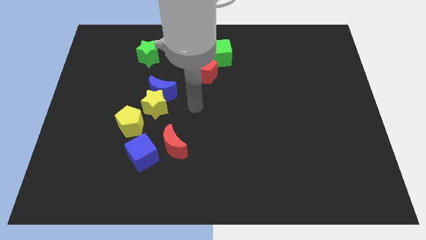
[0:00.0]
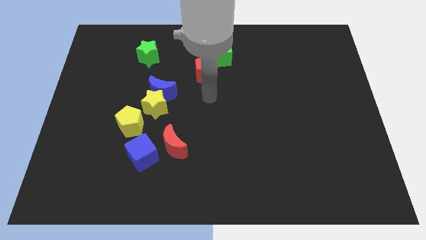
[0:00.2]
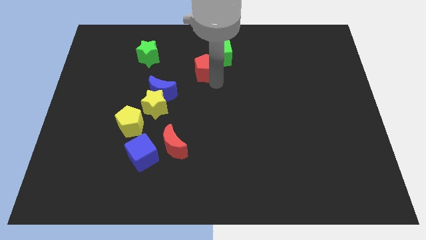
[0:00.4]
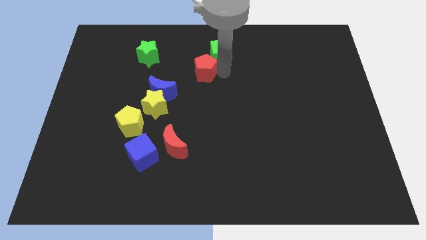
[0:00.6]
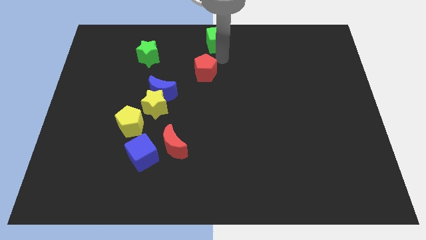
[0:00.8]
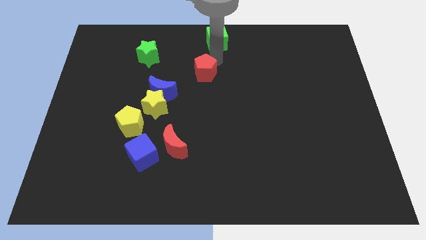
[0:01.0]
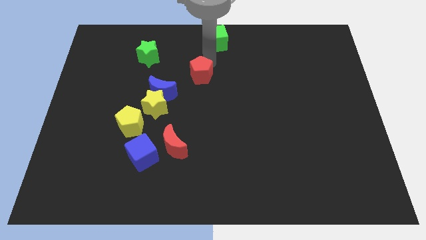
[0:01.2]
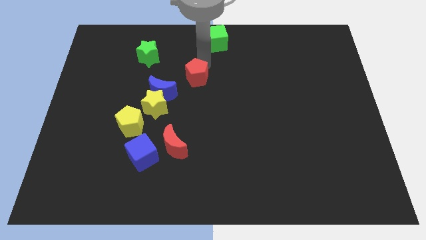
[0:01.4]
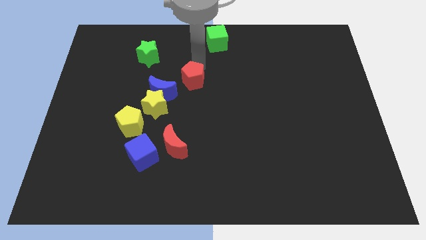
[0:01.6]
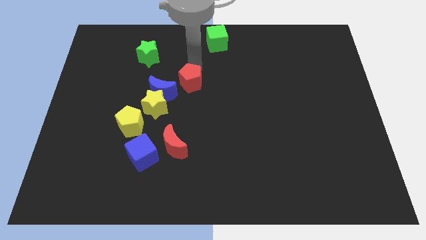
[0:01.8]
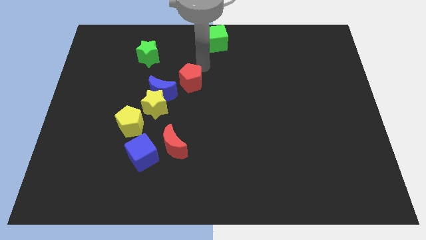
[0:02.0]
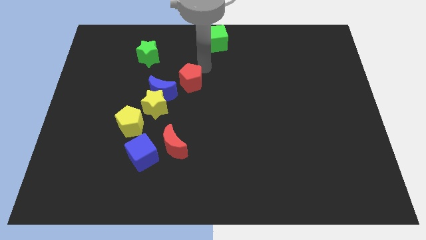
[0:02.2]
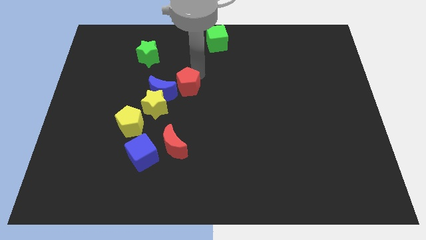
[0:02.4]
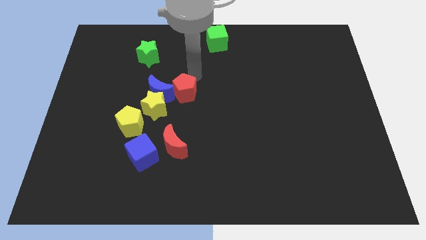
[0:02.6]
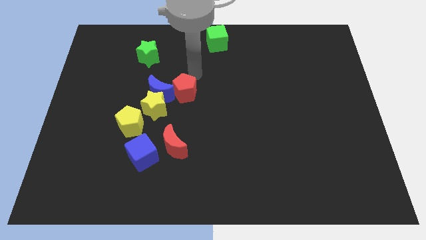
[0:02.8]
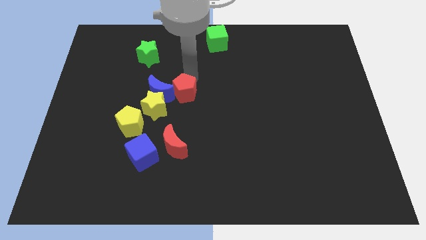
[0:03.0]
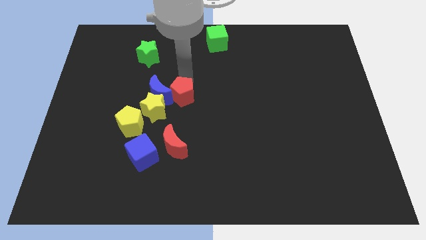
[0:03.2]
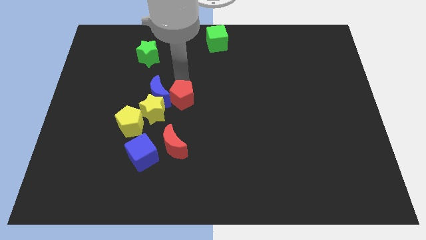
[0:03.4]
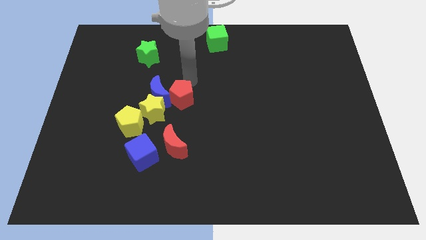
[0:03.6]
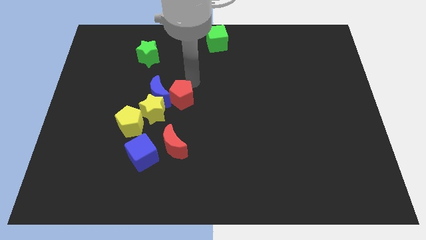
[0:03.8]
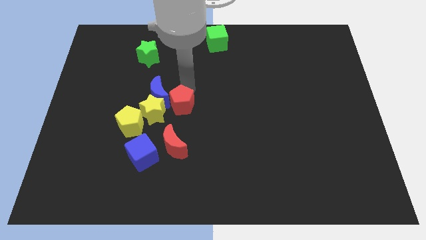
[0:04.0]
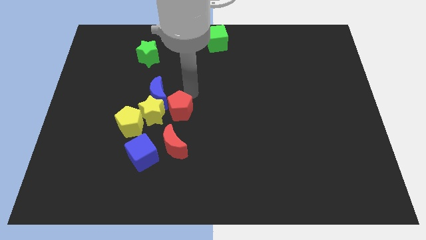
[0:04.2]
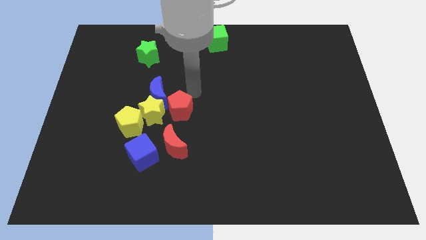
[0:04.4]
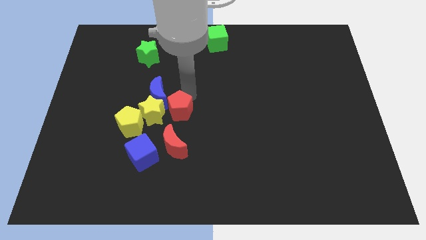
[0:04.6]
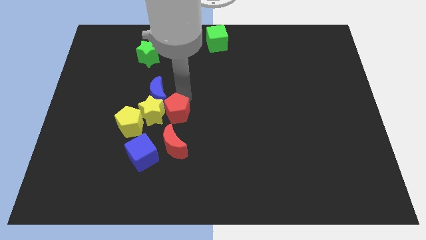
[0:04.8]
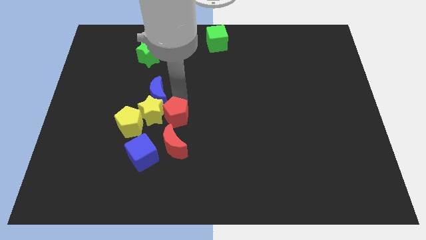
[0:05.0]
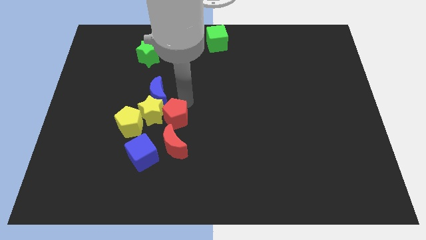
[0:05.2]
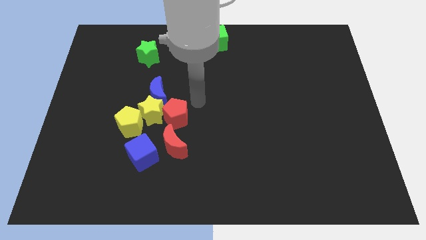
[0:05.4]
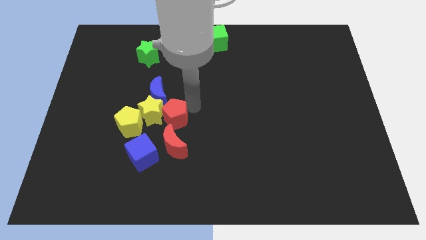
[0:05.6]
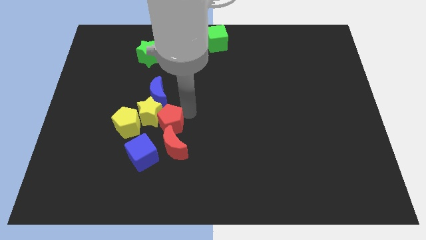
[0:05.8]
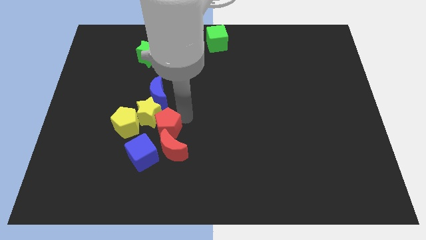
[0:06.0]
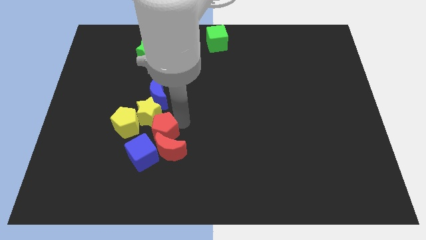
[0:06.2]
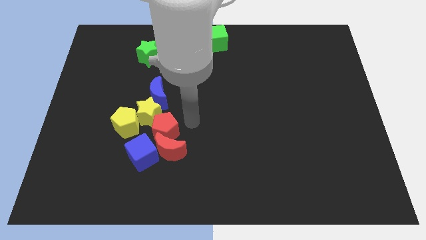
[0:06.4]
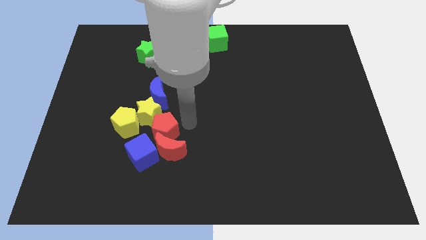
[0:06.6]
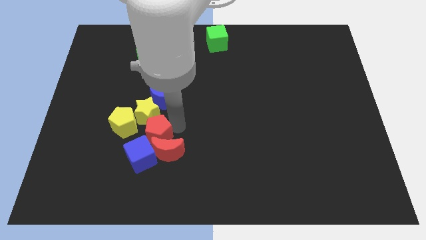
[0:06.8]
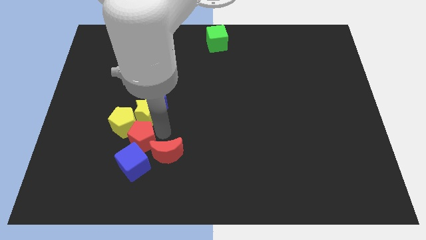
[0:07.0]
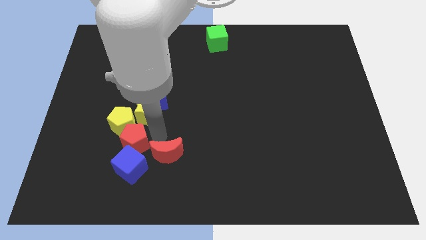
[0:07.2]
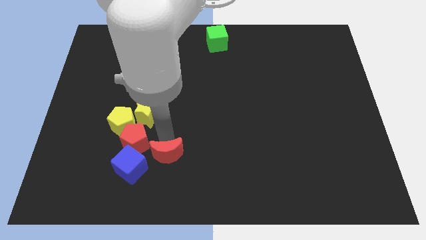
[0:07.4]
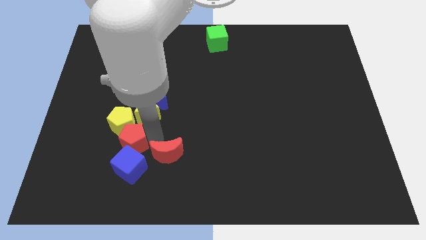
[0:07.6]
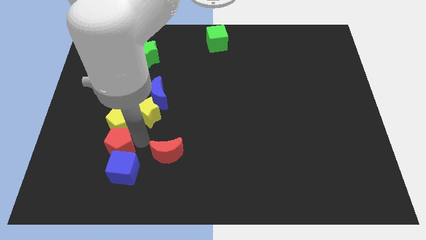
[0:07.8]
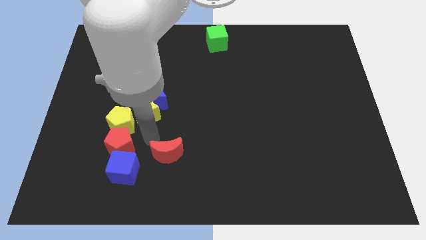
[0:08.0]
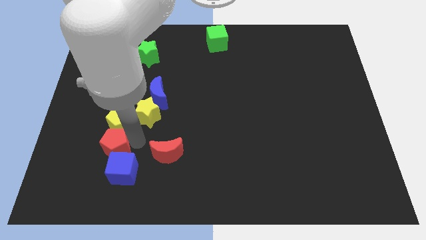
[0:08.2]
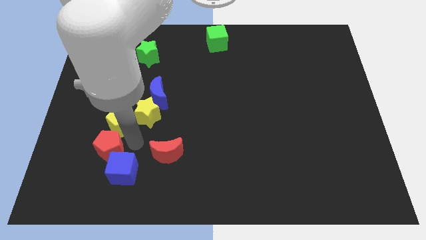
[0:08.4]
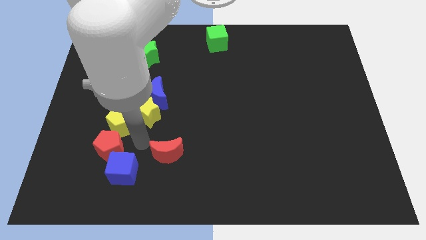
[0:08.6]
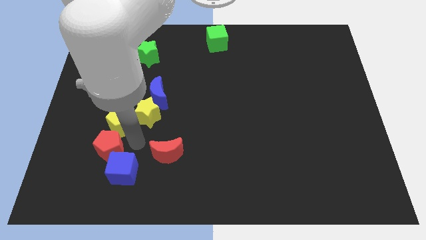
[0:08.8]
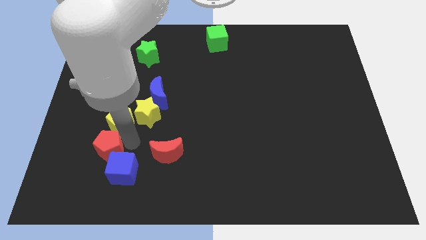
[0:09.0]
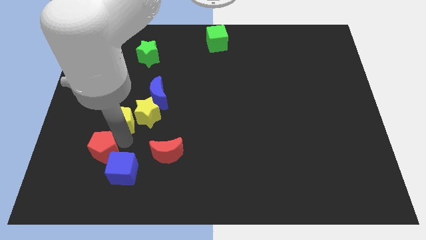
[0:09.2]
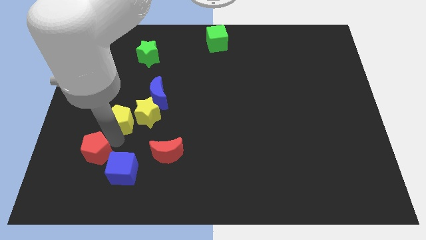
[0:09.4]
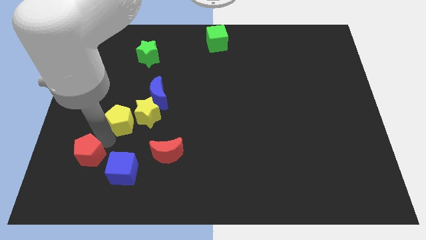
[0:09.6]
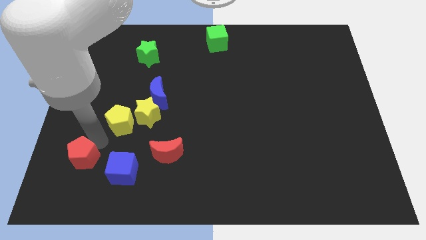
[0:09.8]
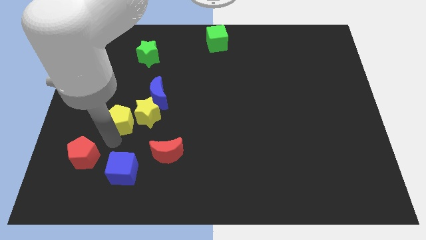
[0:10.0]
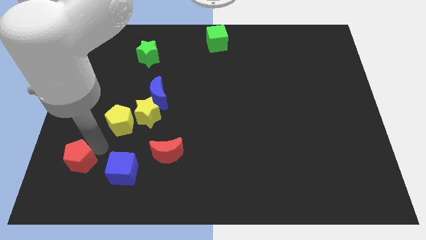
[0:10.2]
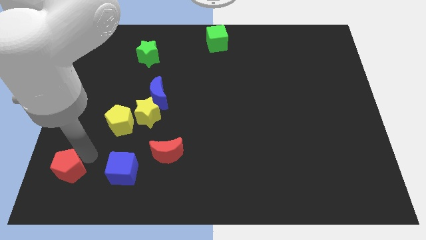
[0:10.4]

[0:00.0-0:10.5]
slide the red pentagon to the bottom left

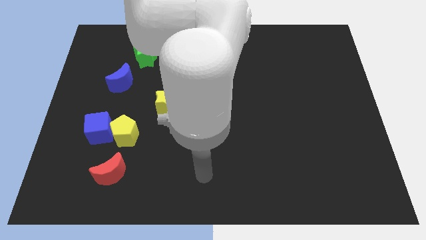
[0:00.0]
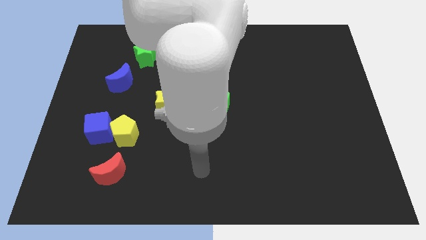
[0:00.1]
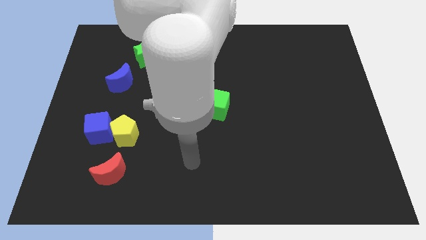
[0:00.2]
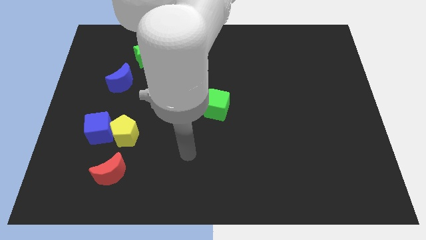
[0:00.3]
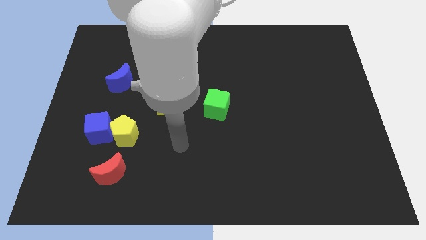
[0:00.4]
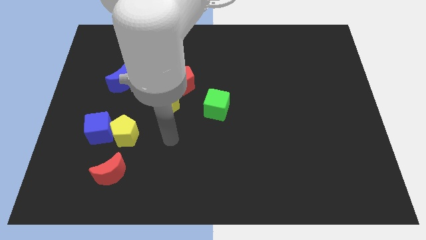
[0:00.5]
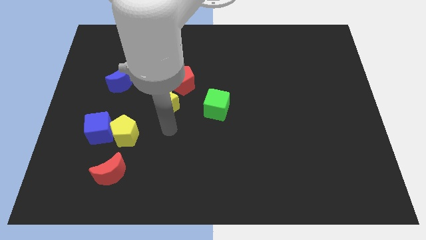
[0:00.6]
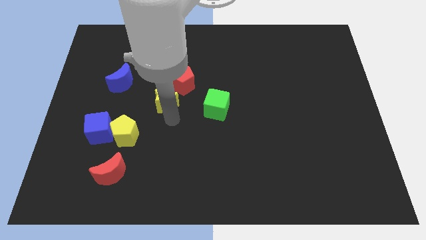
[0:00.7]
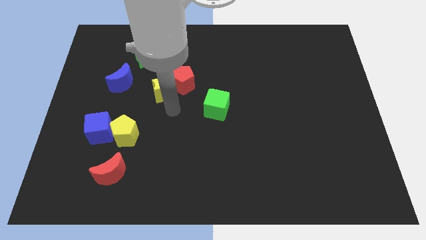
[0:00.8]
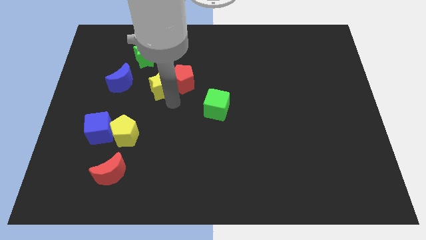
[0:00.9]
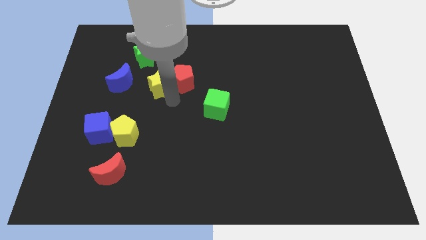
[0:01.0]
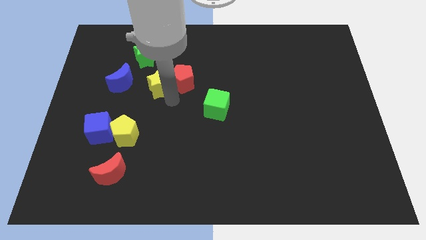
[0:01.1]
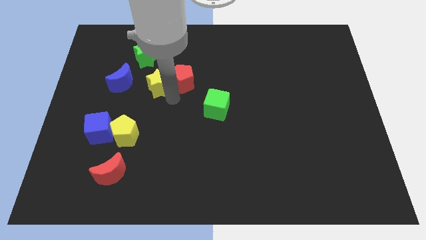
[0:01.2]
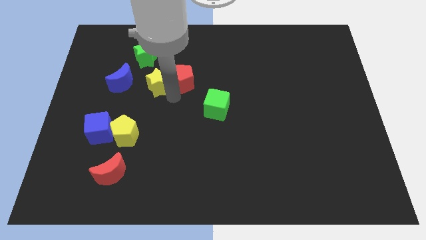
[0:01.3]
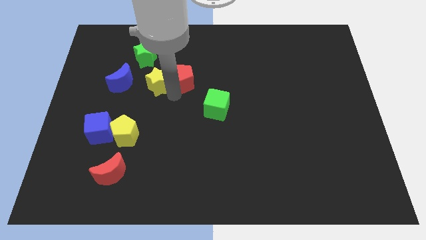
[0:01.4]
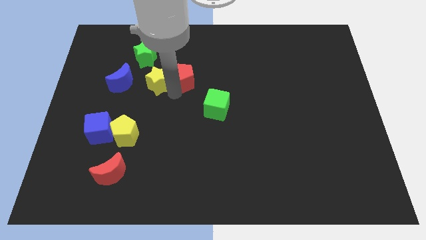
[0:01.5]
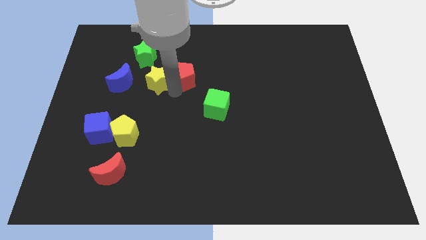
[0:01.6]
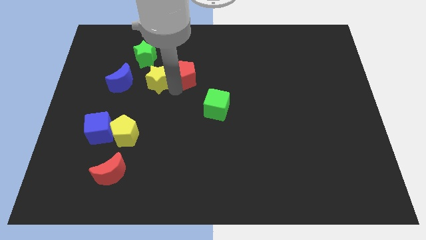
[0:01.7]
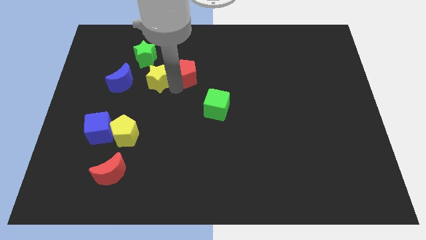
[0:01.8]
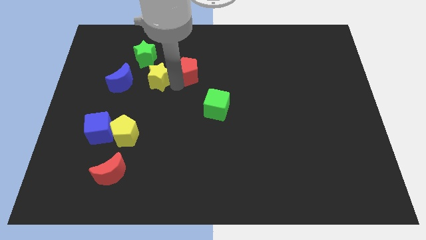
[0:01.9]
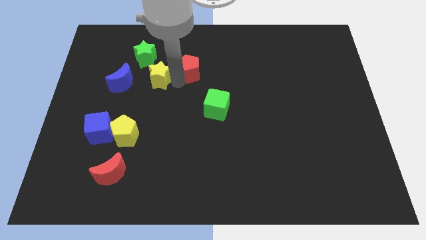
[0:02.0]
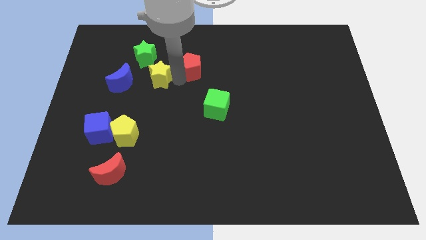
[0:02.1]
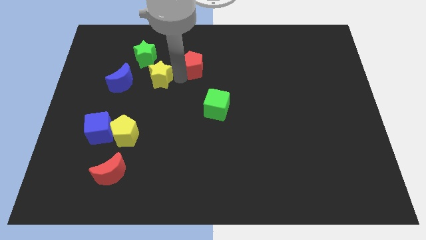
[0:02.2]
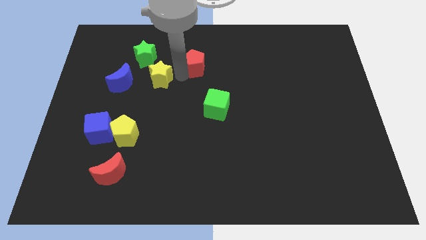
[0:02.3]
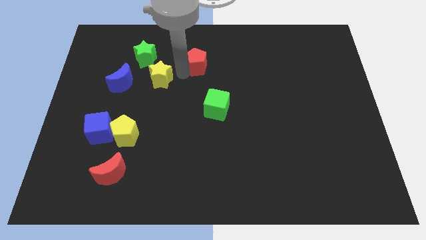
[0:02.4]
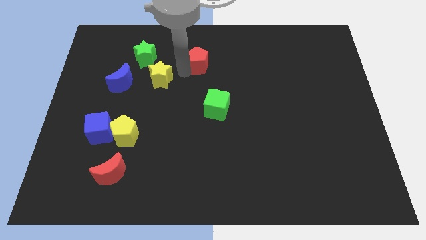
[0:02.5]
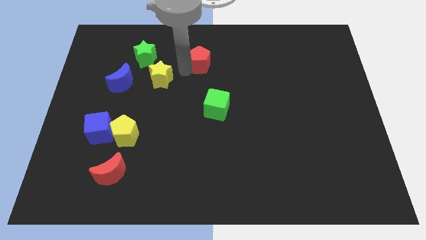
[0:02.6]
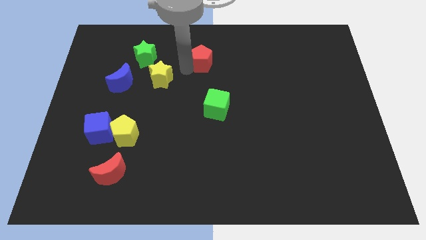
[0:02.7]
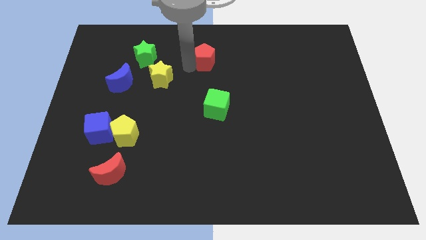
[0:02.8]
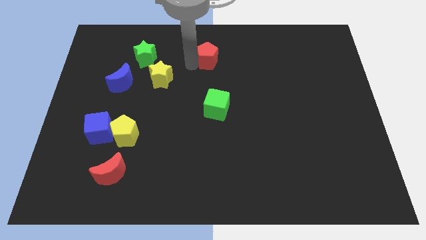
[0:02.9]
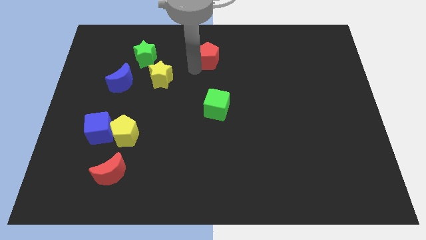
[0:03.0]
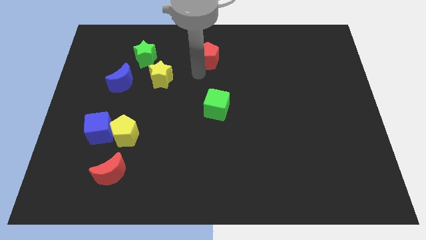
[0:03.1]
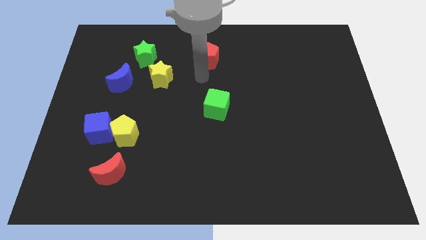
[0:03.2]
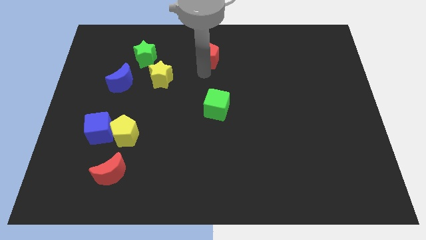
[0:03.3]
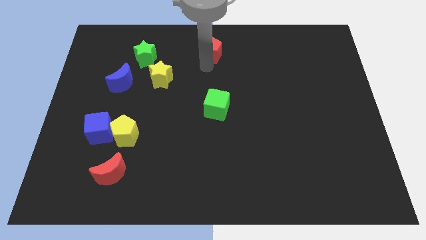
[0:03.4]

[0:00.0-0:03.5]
put the red pentagon to the top side
